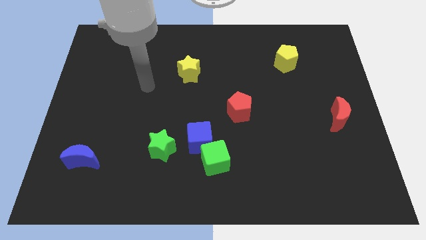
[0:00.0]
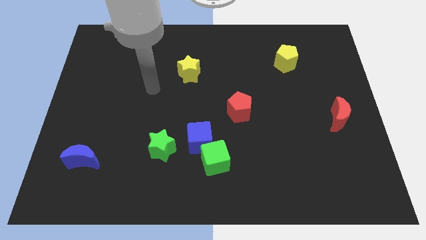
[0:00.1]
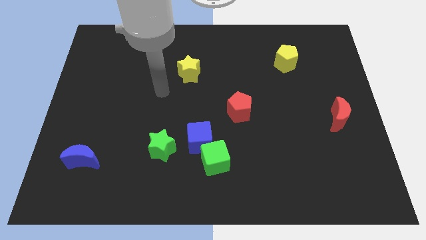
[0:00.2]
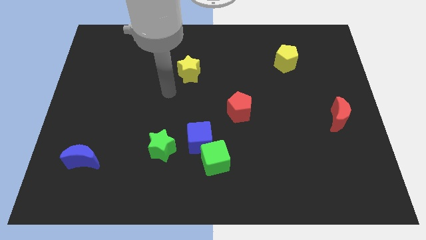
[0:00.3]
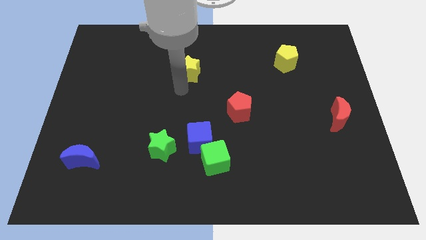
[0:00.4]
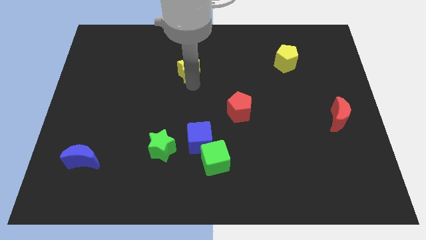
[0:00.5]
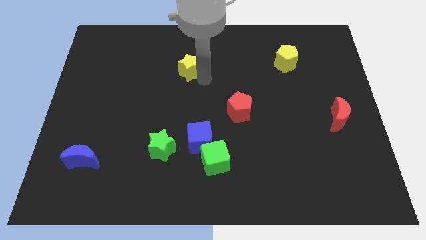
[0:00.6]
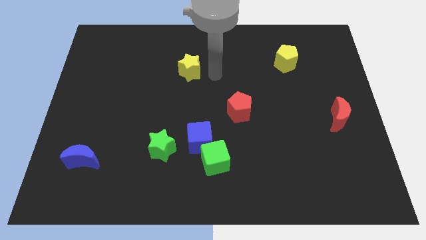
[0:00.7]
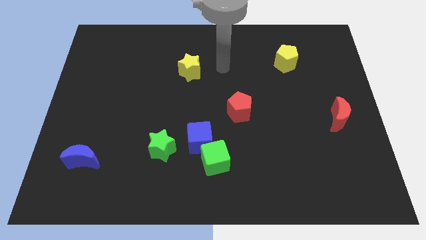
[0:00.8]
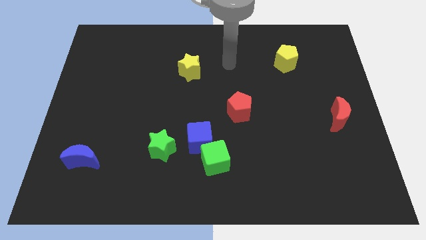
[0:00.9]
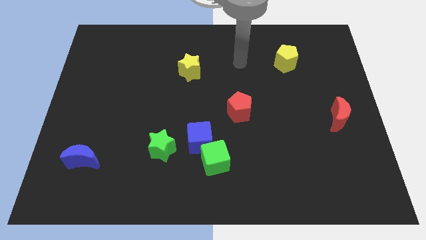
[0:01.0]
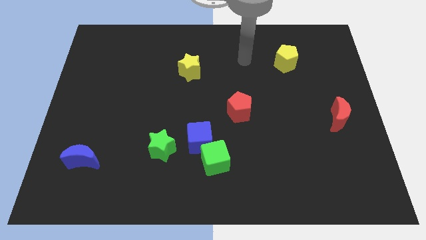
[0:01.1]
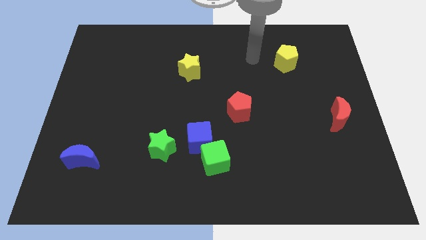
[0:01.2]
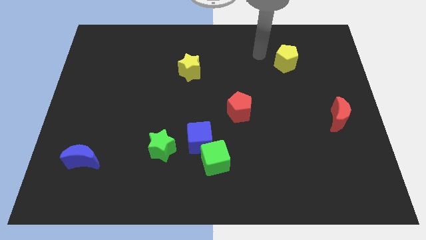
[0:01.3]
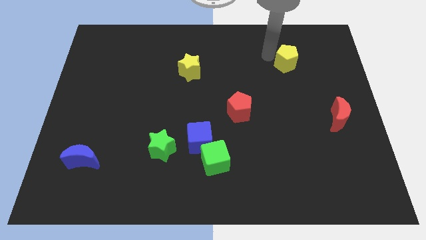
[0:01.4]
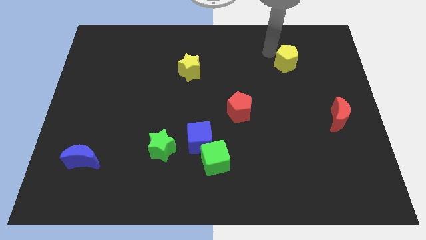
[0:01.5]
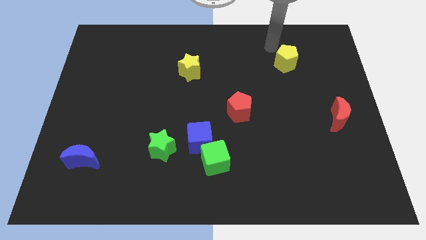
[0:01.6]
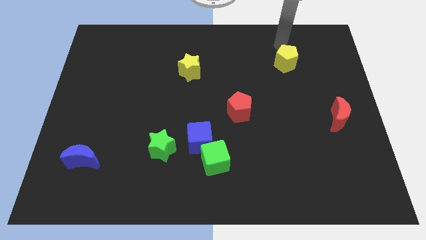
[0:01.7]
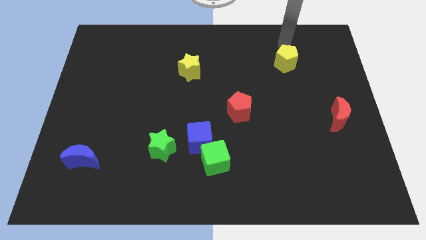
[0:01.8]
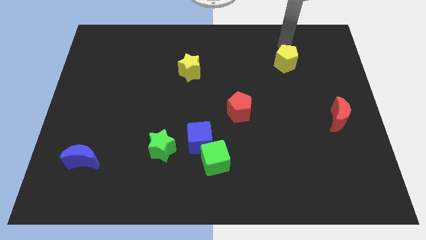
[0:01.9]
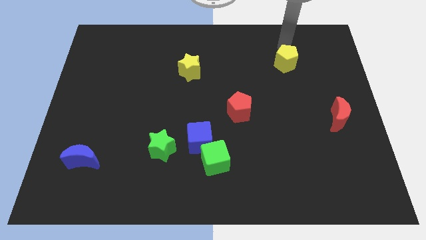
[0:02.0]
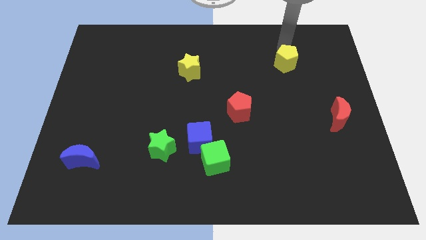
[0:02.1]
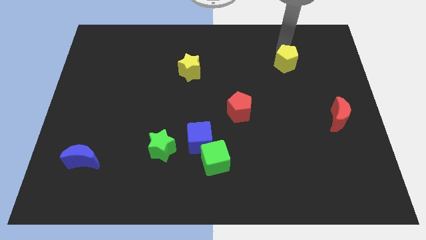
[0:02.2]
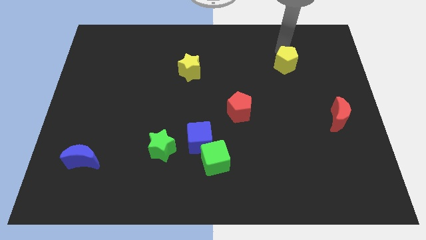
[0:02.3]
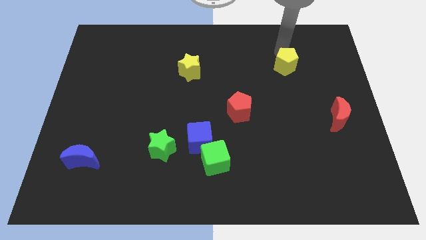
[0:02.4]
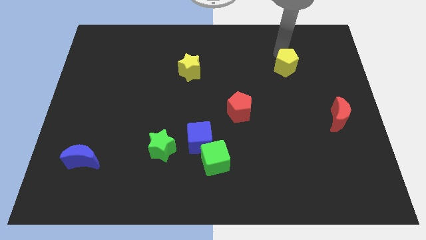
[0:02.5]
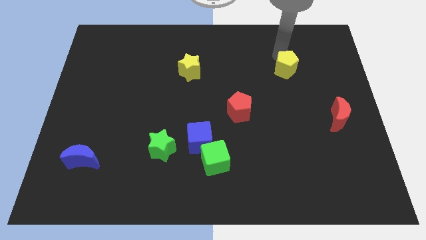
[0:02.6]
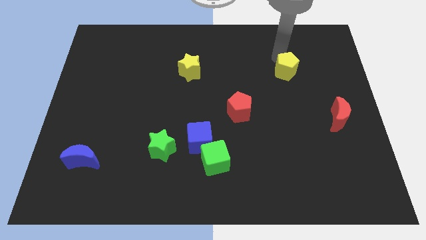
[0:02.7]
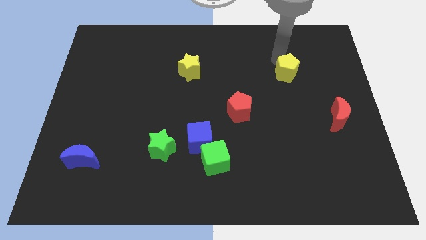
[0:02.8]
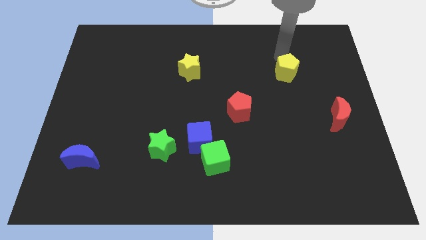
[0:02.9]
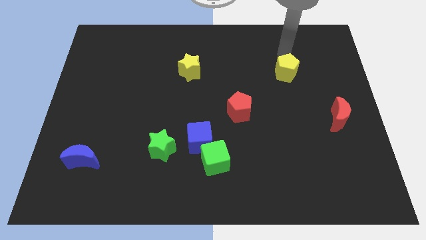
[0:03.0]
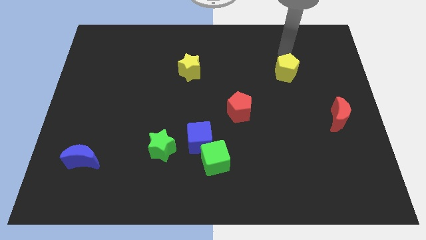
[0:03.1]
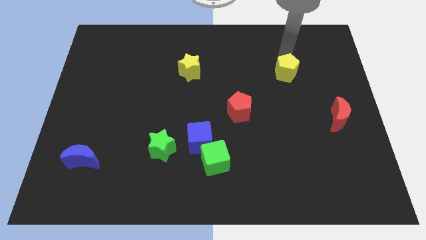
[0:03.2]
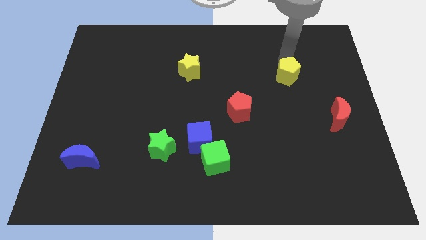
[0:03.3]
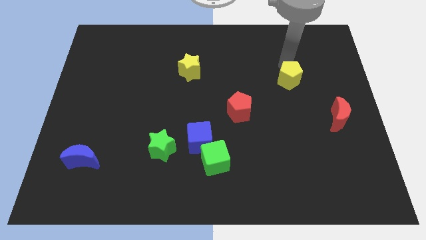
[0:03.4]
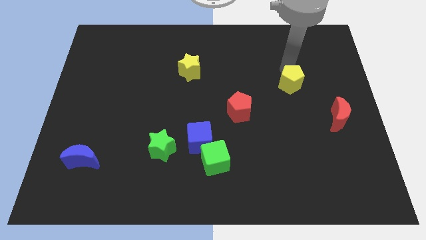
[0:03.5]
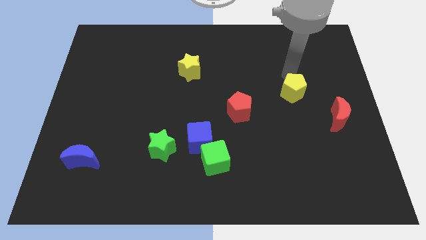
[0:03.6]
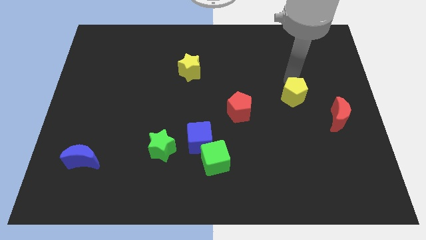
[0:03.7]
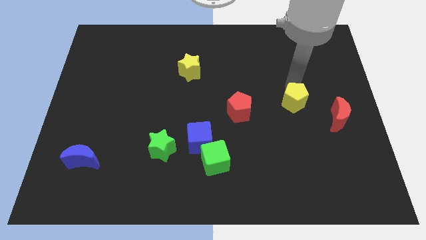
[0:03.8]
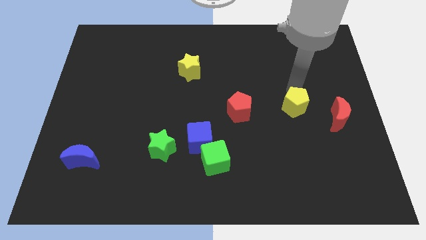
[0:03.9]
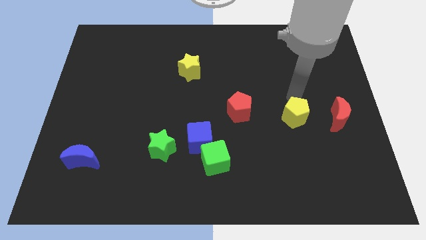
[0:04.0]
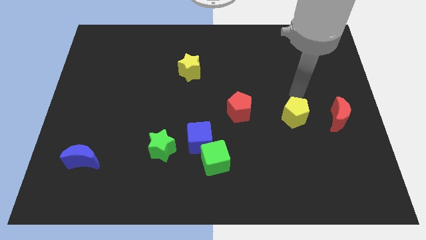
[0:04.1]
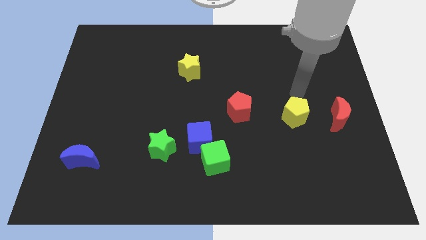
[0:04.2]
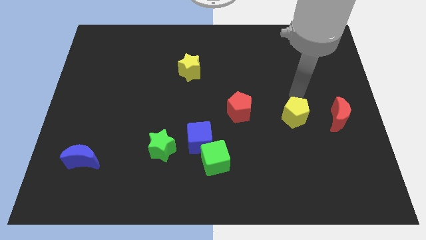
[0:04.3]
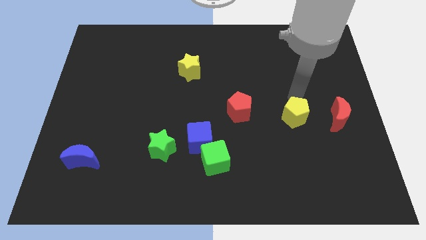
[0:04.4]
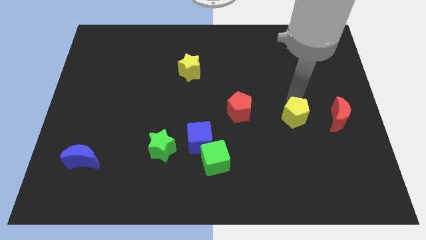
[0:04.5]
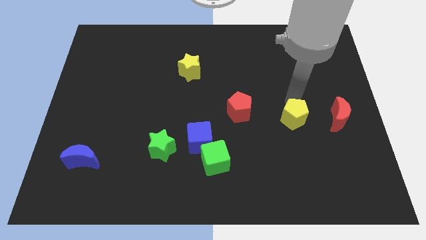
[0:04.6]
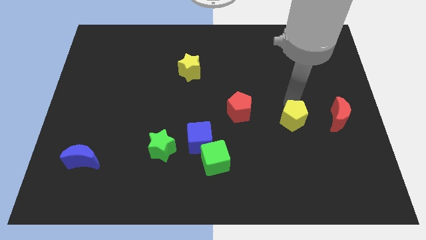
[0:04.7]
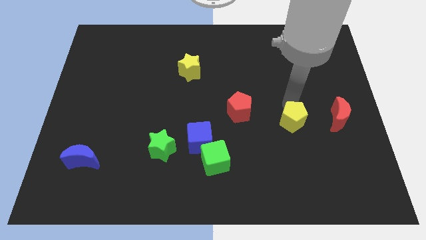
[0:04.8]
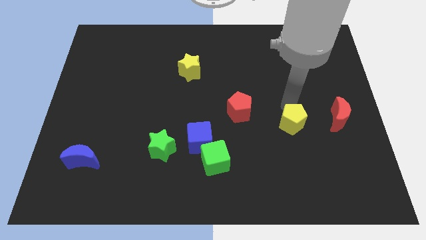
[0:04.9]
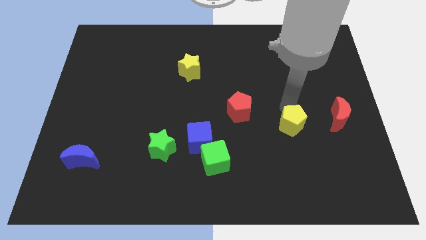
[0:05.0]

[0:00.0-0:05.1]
slide the yellow pentagon down

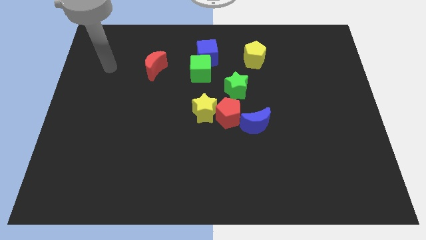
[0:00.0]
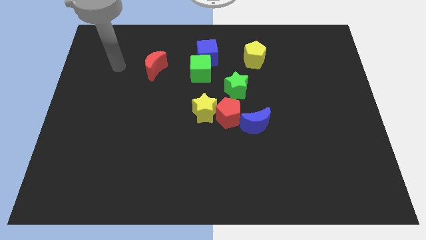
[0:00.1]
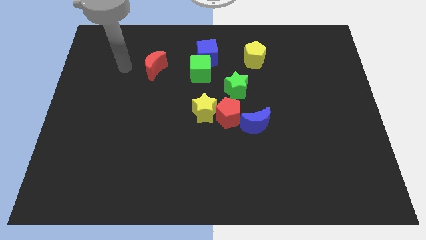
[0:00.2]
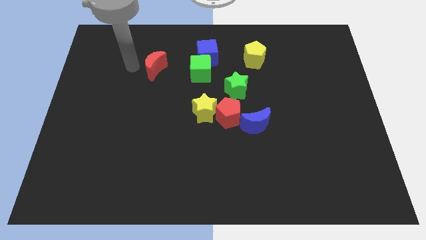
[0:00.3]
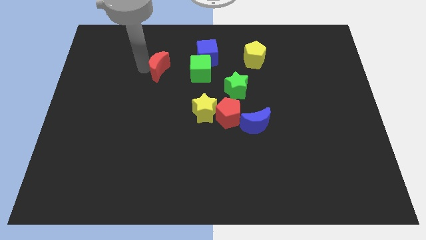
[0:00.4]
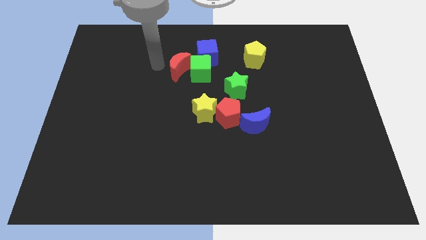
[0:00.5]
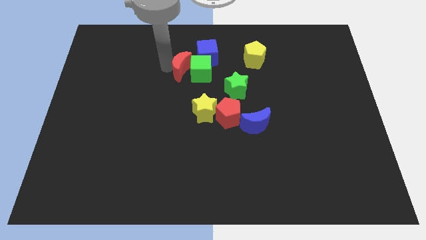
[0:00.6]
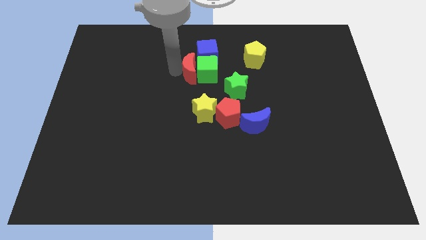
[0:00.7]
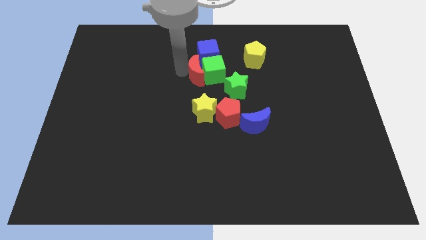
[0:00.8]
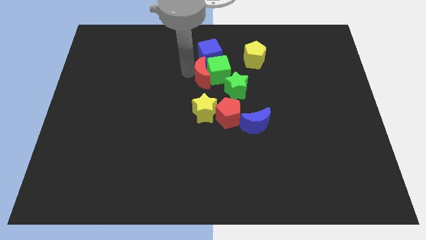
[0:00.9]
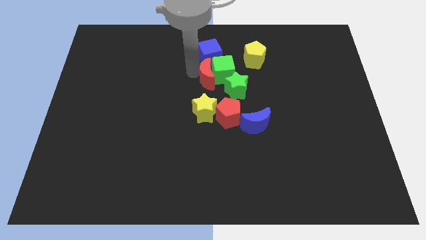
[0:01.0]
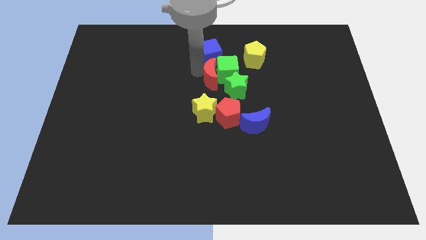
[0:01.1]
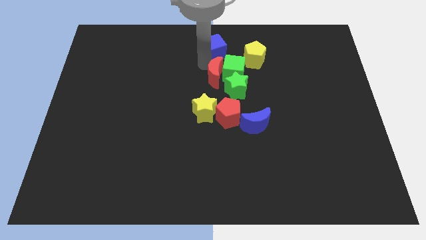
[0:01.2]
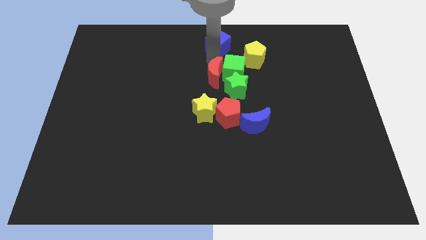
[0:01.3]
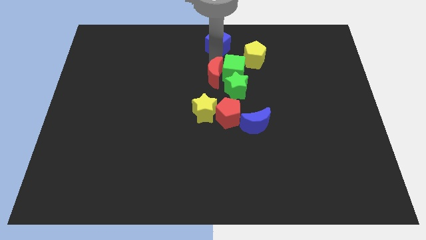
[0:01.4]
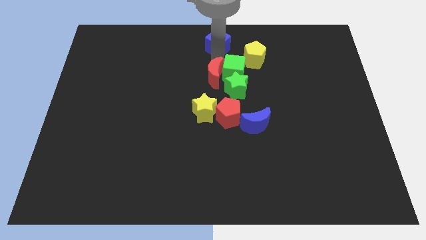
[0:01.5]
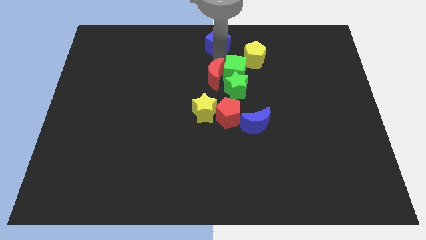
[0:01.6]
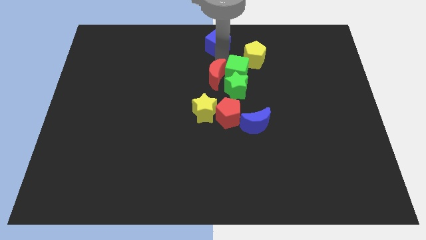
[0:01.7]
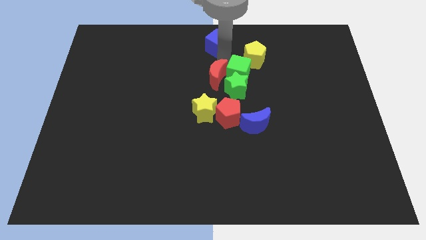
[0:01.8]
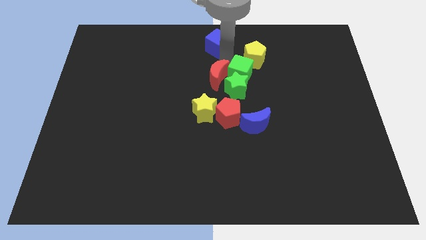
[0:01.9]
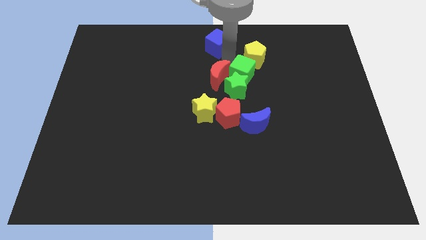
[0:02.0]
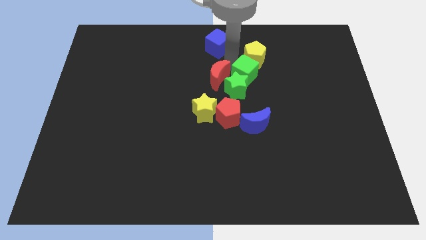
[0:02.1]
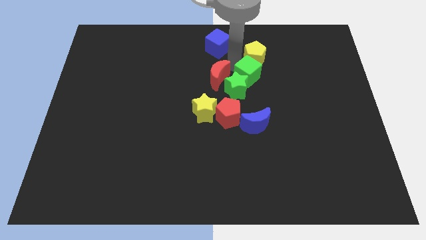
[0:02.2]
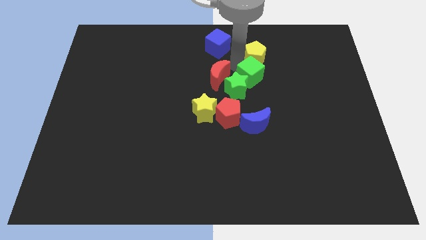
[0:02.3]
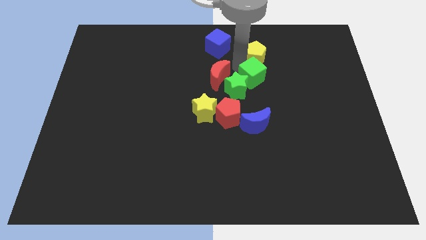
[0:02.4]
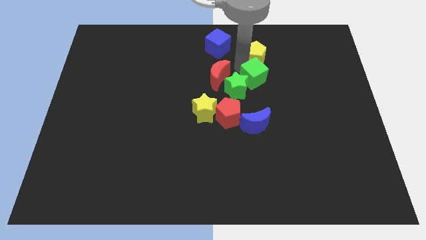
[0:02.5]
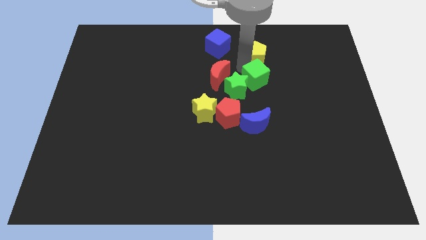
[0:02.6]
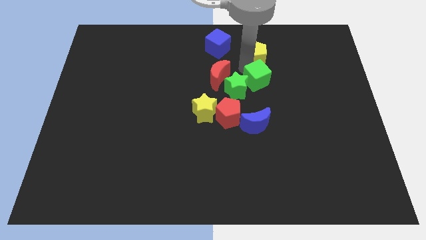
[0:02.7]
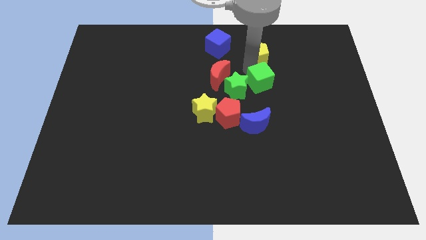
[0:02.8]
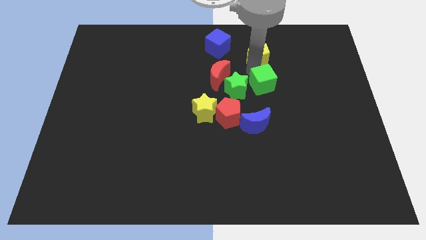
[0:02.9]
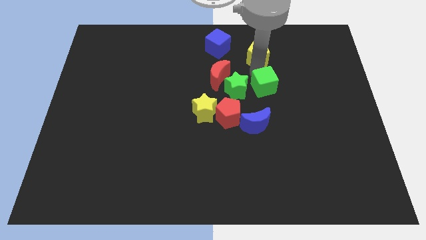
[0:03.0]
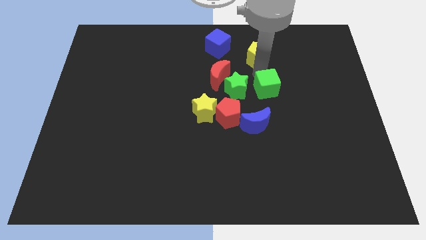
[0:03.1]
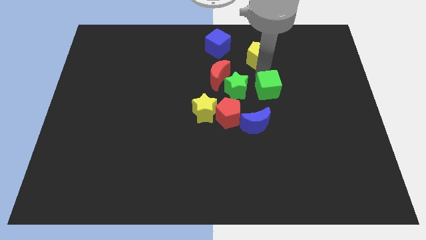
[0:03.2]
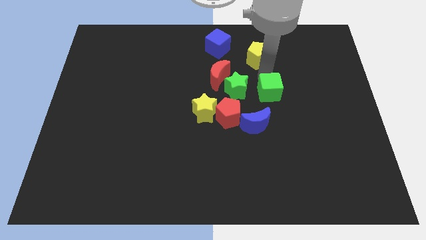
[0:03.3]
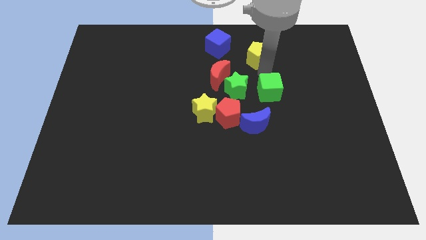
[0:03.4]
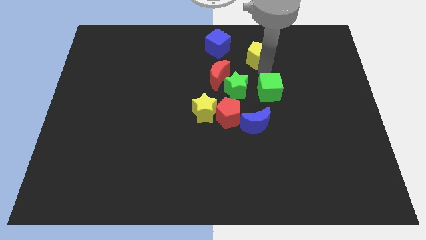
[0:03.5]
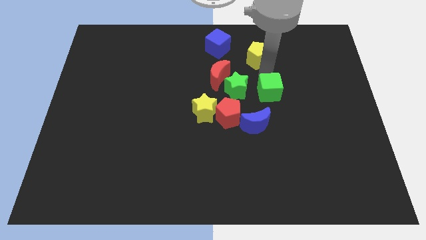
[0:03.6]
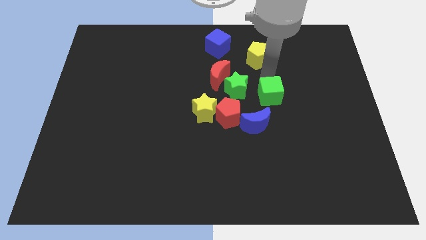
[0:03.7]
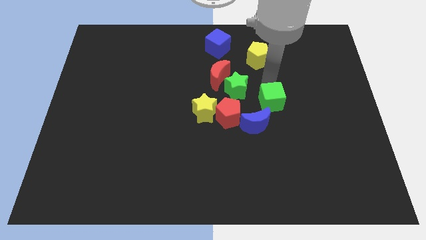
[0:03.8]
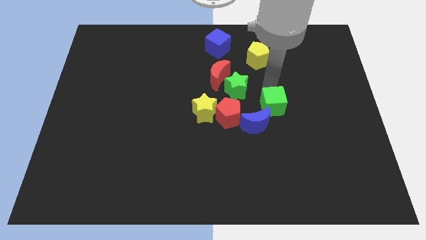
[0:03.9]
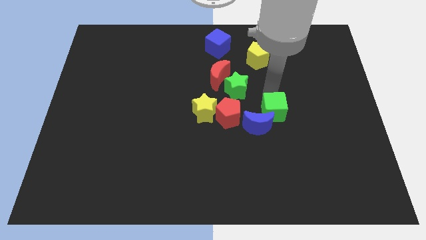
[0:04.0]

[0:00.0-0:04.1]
push the green cube downwards and to the right diagonally
